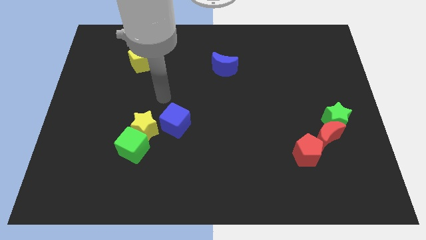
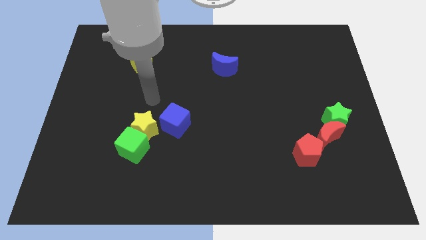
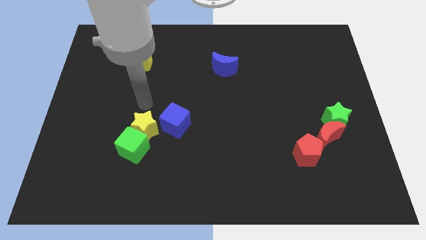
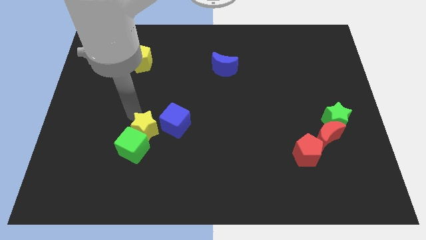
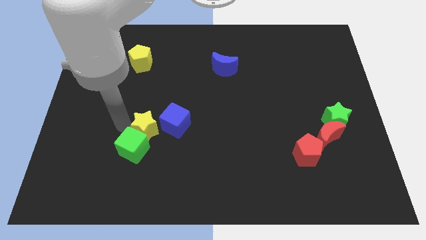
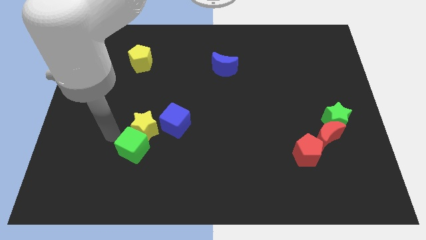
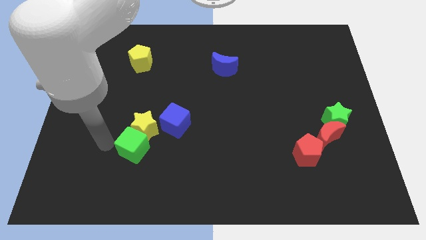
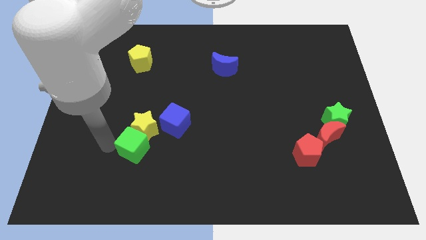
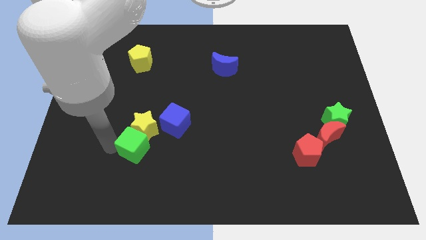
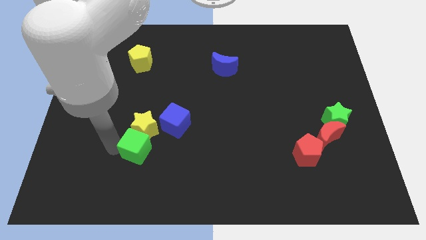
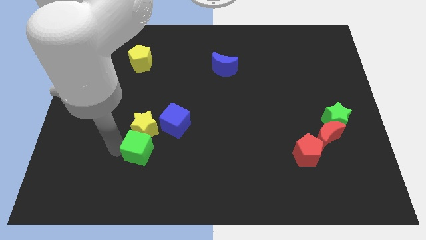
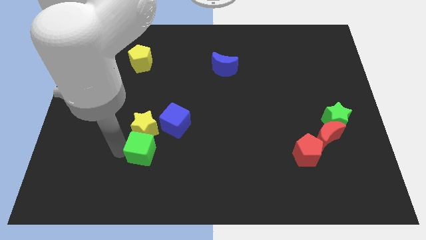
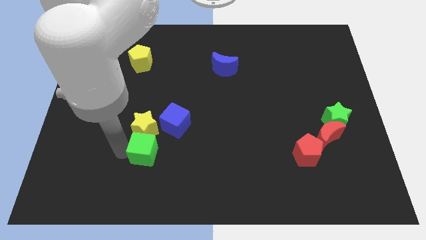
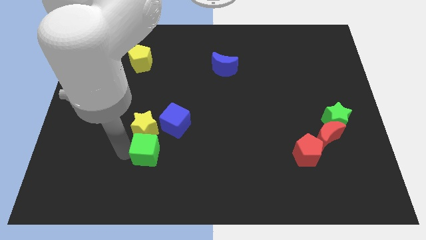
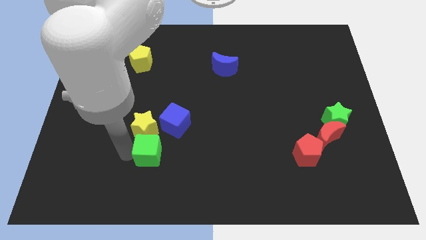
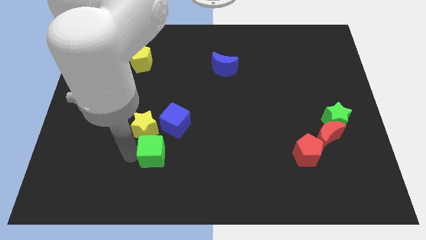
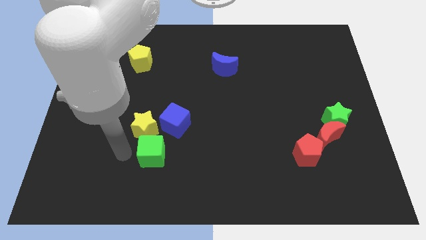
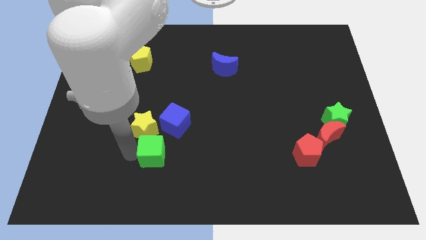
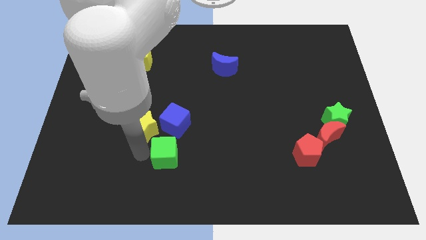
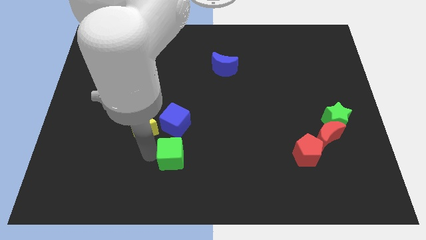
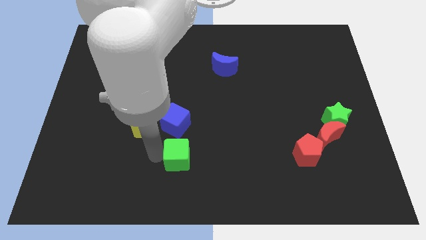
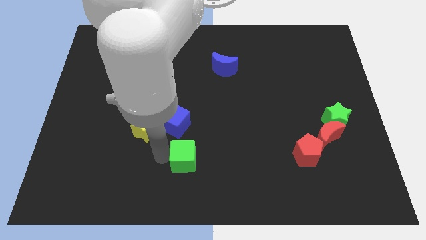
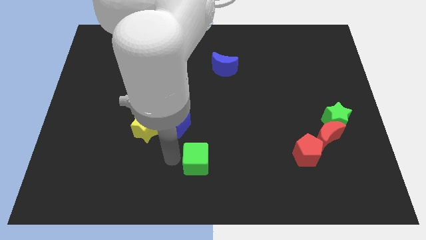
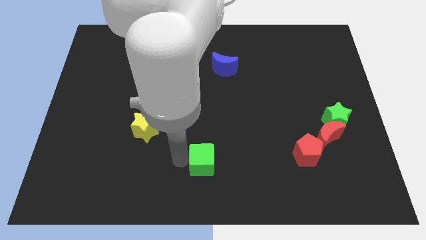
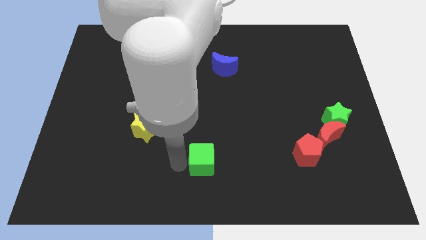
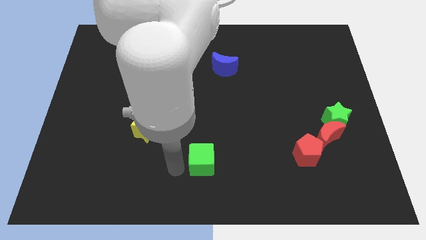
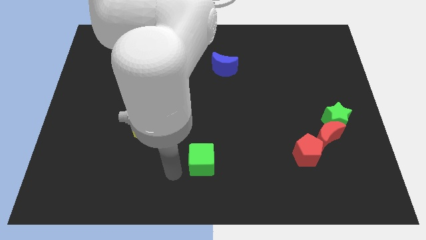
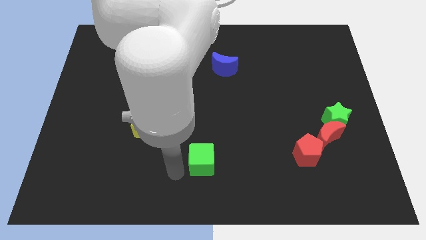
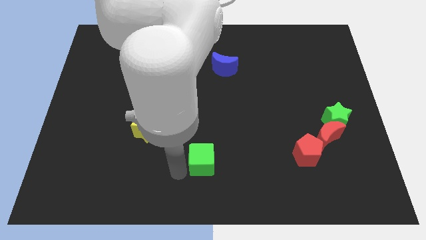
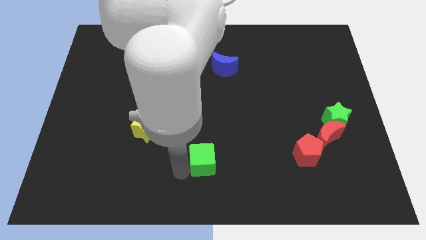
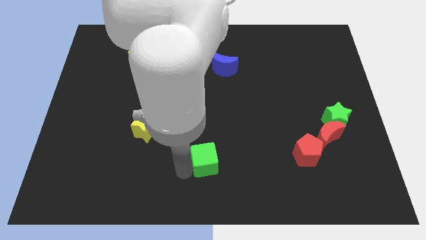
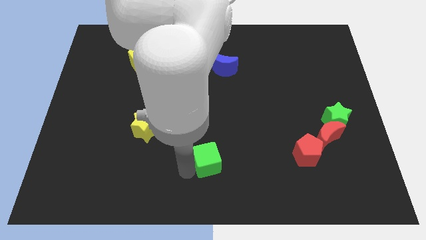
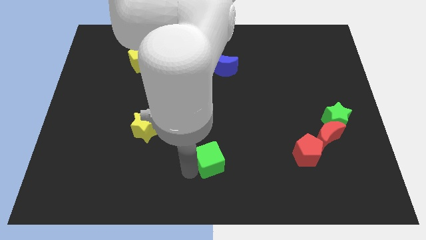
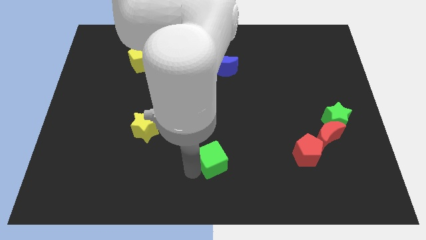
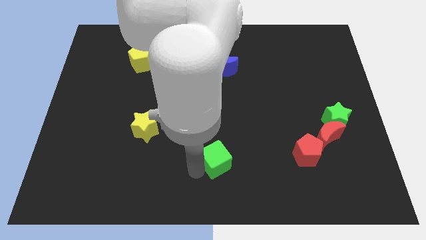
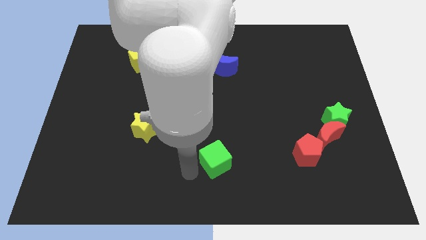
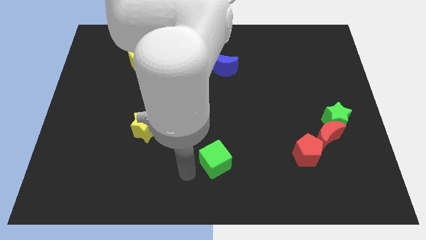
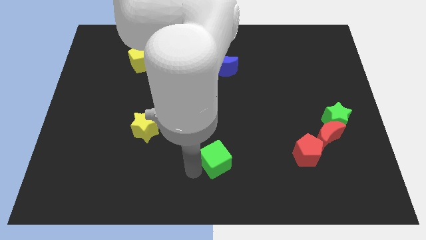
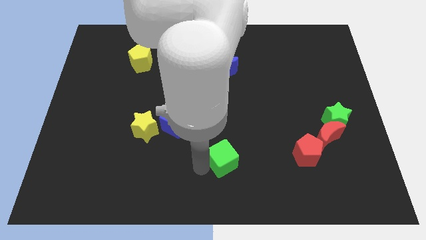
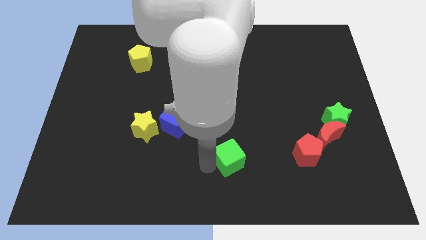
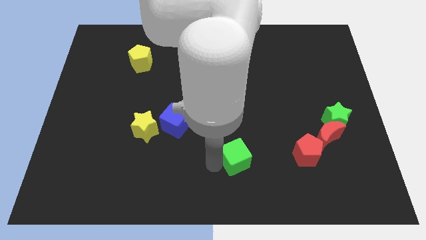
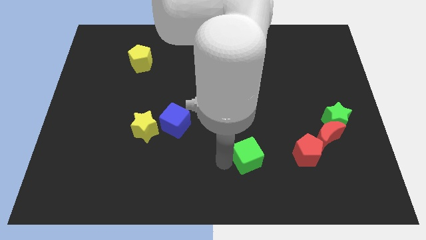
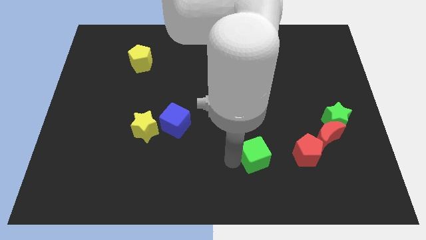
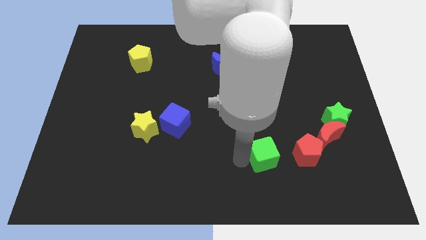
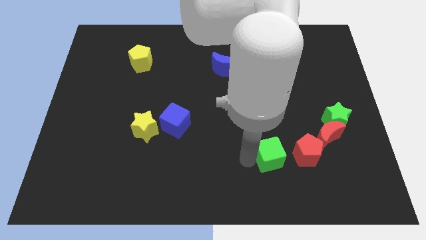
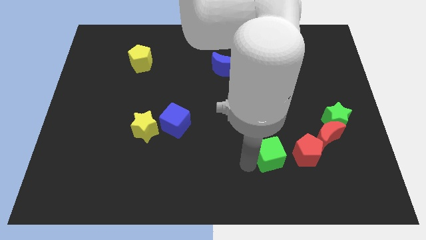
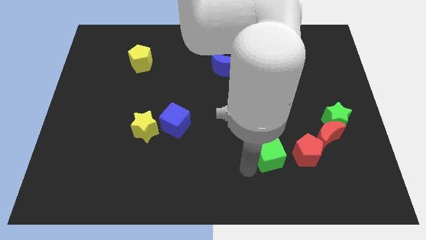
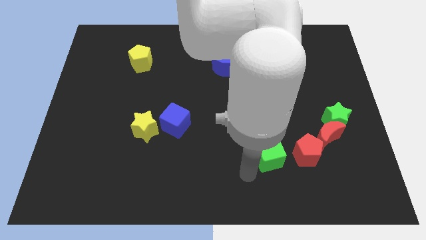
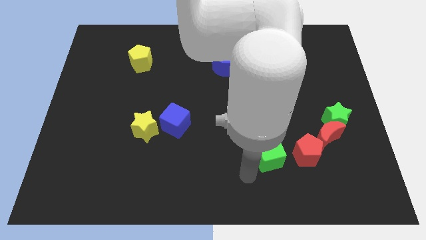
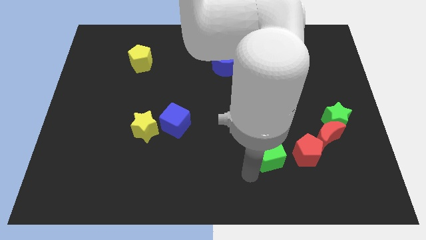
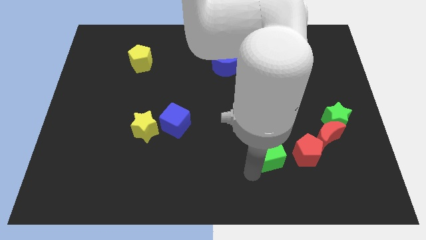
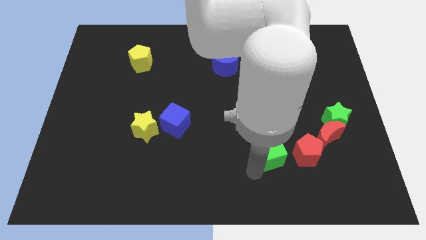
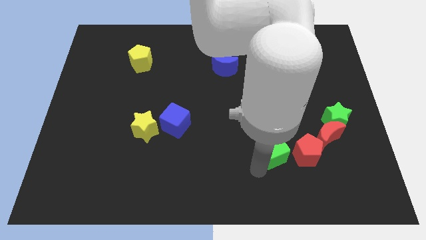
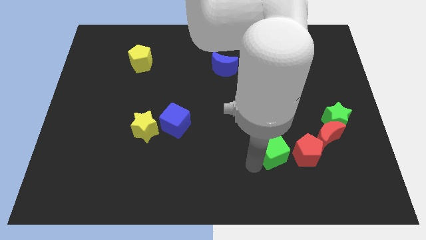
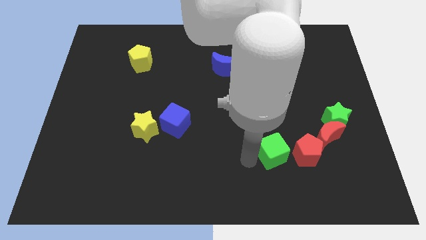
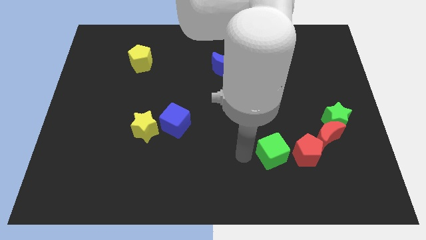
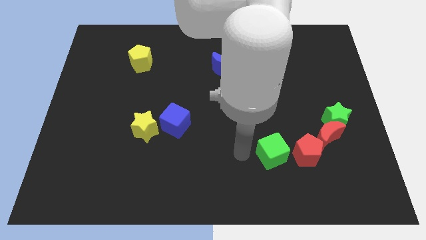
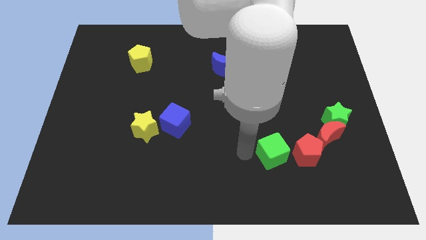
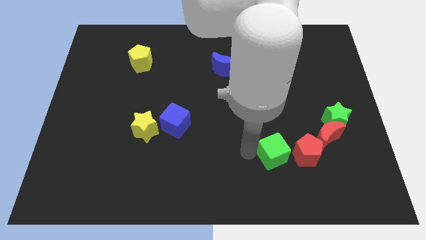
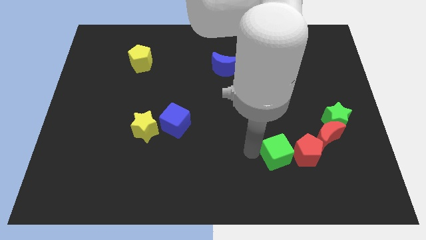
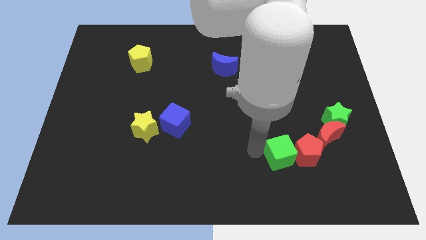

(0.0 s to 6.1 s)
put the green cube to the red pentagon

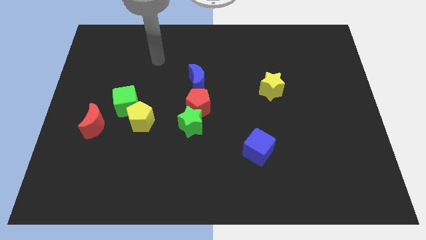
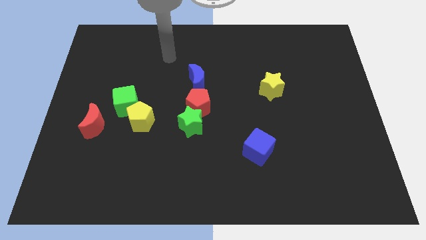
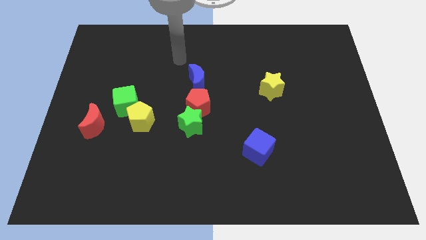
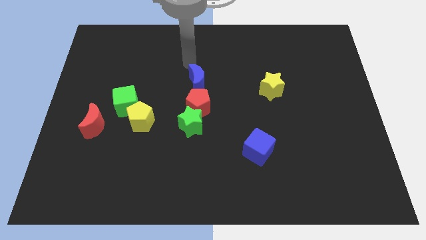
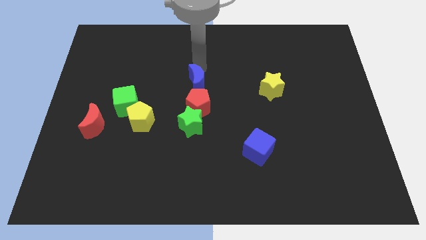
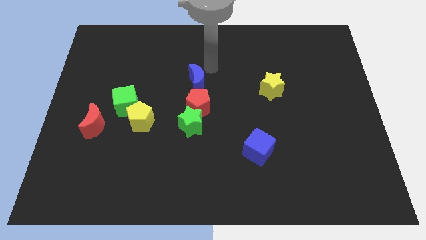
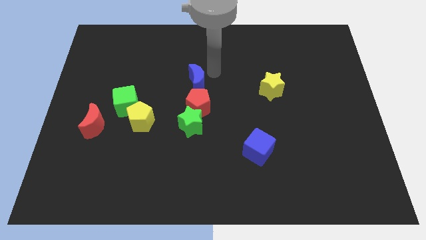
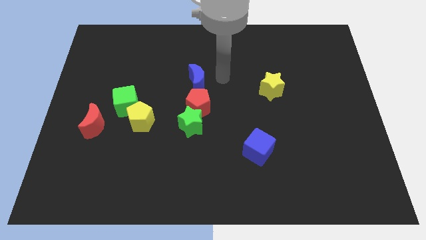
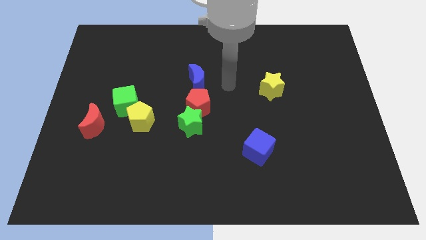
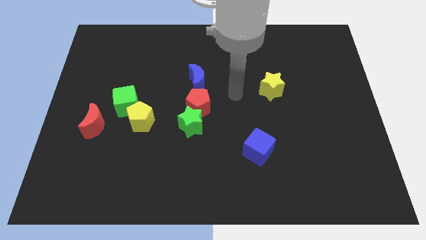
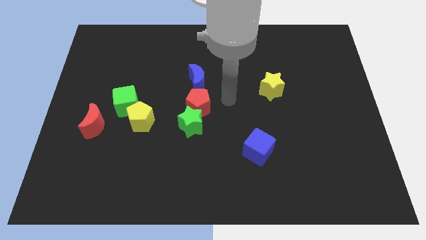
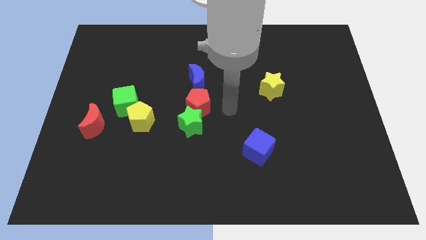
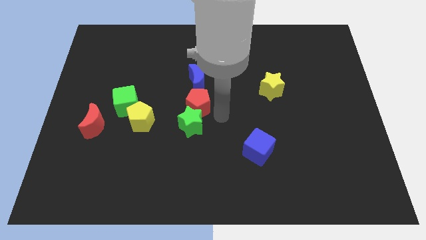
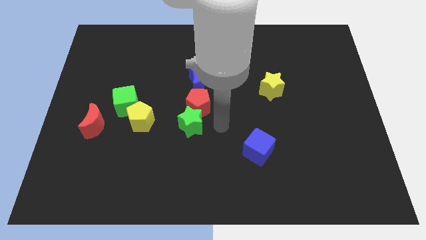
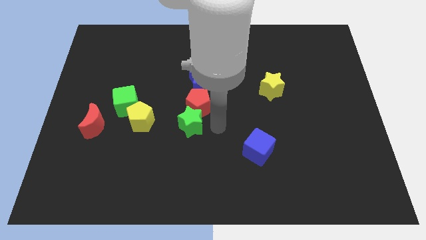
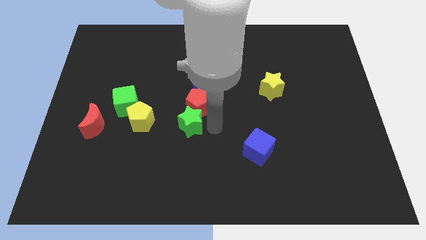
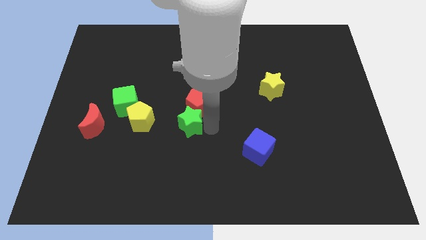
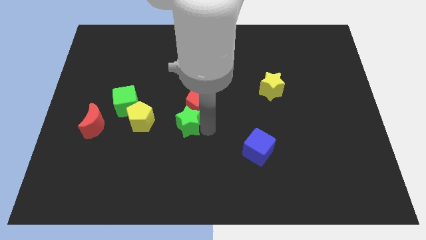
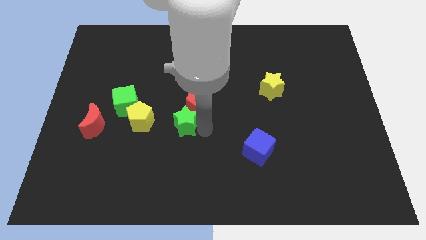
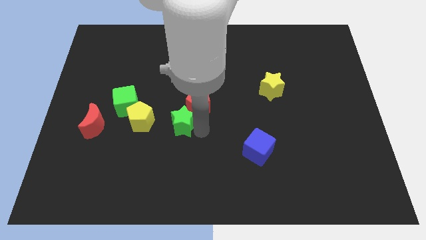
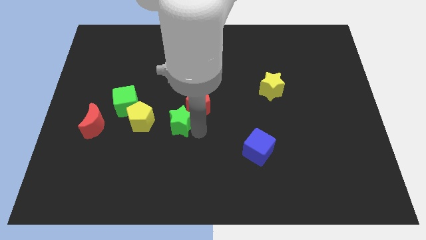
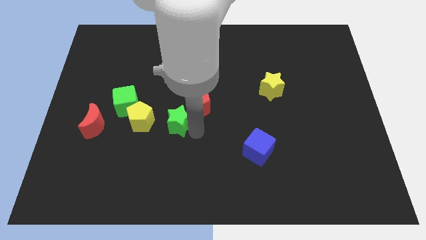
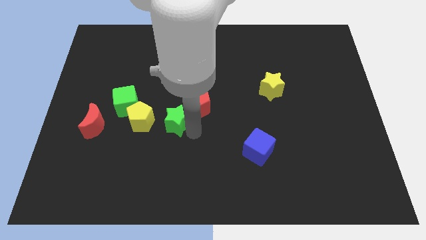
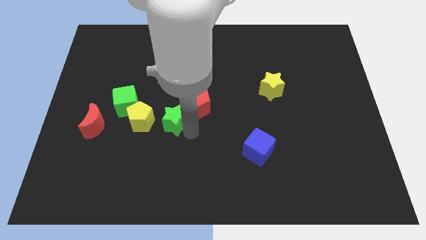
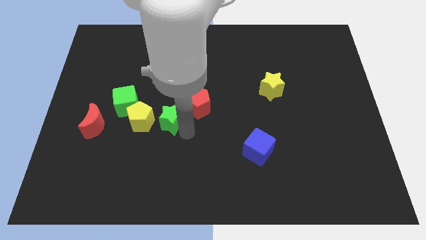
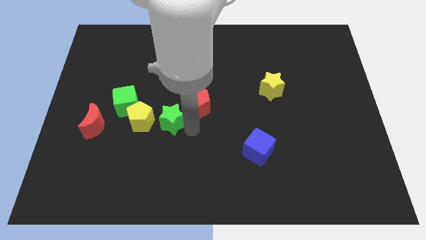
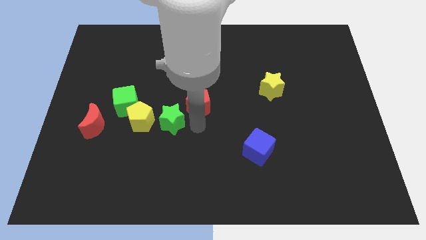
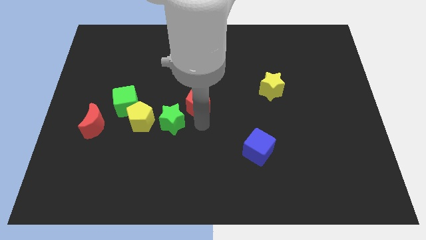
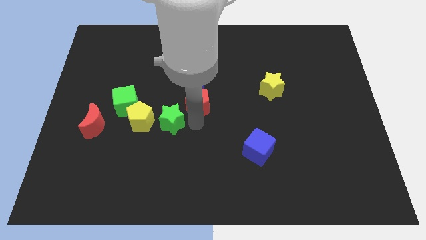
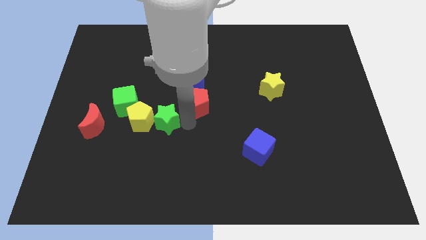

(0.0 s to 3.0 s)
put the green star towards the yellow pentagon
